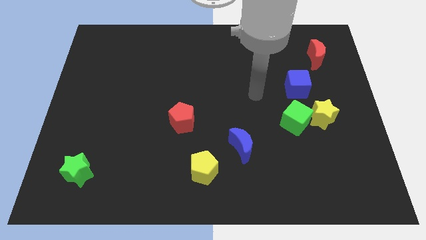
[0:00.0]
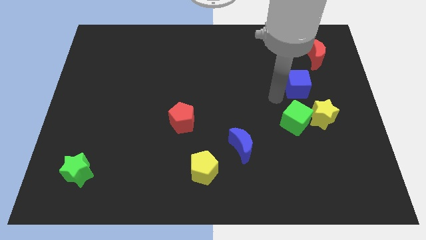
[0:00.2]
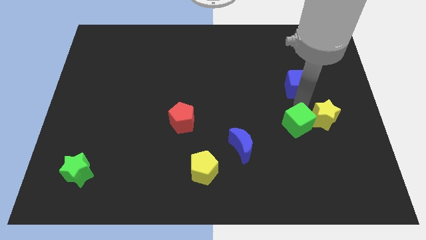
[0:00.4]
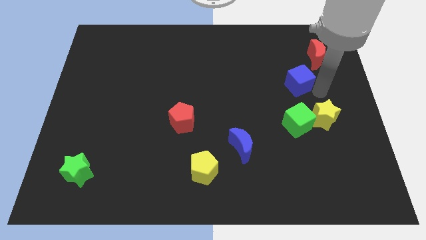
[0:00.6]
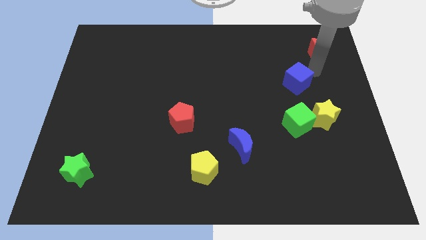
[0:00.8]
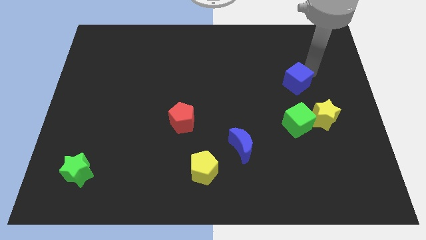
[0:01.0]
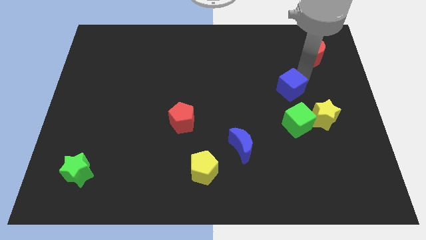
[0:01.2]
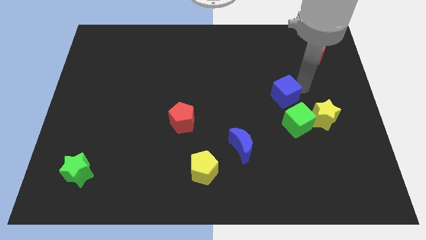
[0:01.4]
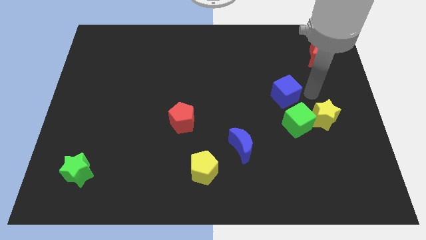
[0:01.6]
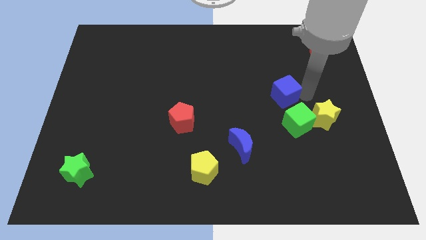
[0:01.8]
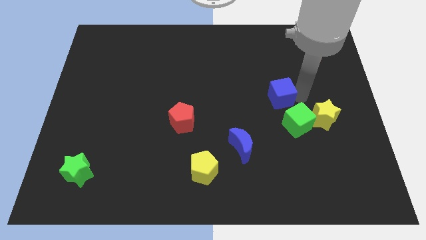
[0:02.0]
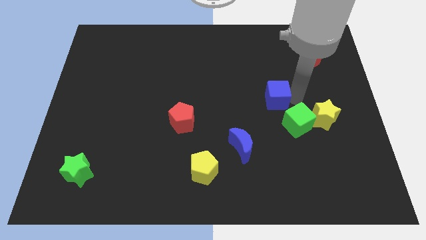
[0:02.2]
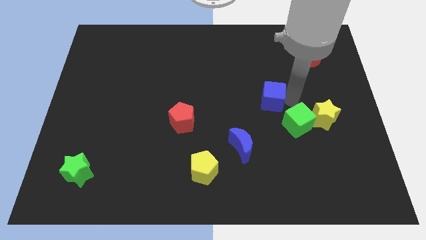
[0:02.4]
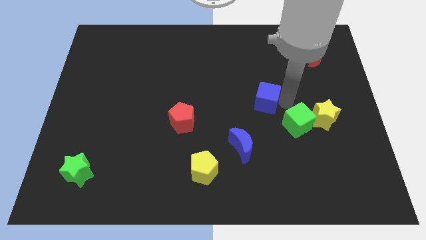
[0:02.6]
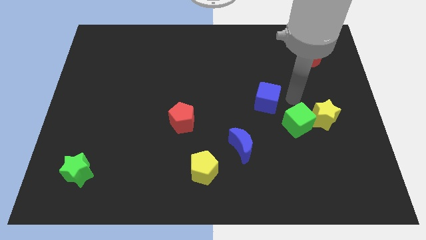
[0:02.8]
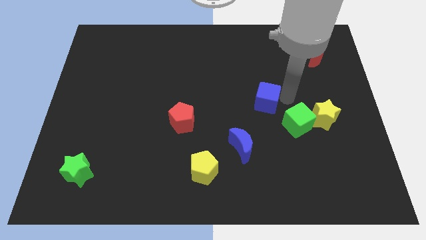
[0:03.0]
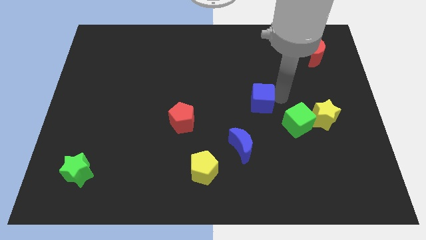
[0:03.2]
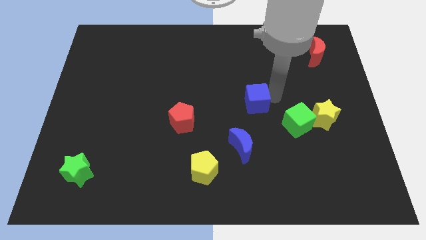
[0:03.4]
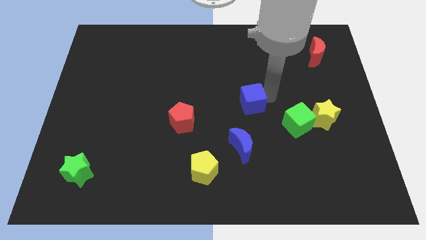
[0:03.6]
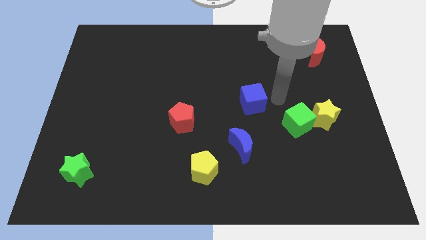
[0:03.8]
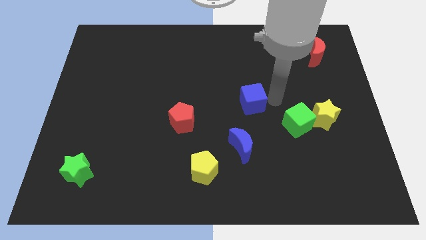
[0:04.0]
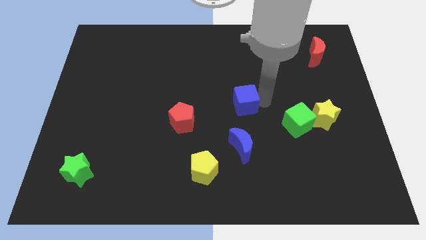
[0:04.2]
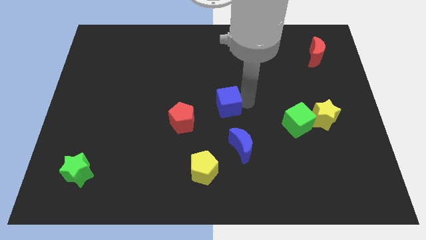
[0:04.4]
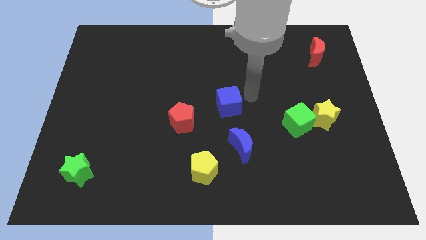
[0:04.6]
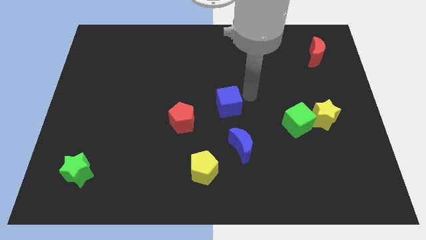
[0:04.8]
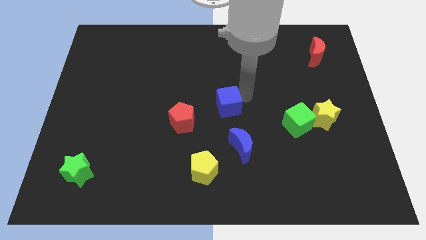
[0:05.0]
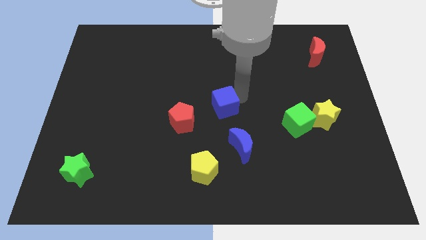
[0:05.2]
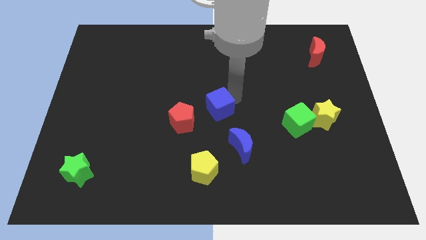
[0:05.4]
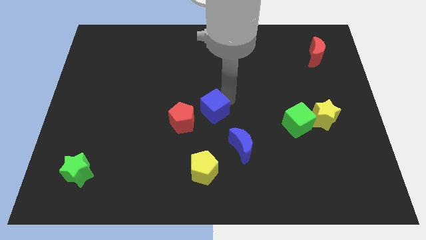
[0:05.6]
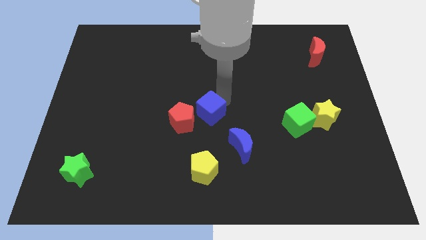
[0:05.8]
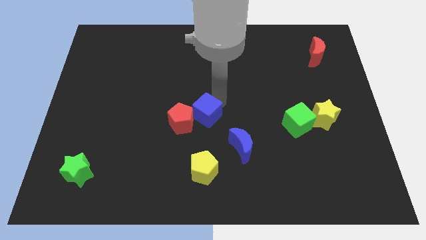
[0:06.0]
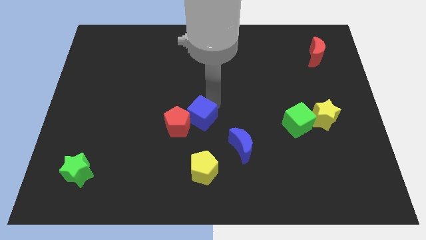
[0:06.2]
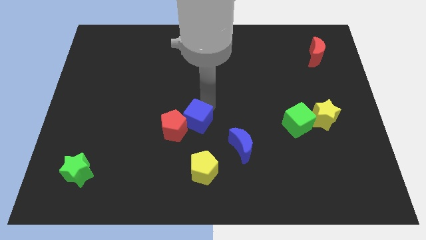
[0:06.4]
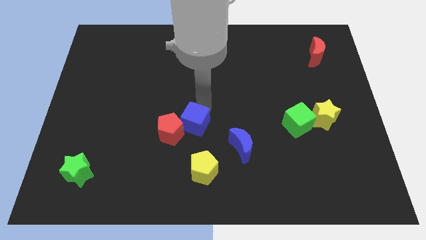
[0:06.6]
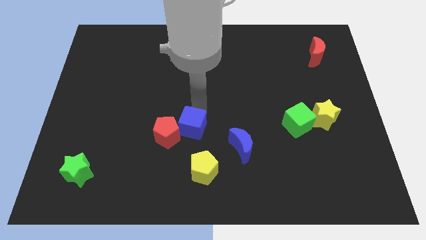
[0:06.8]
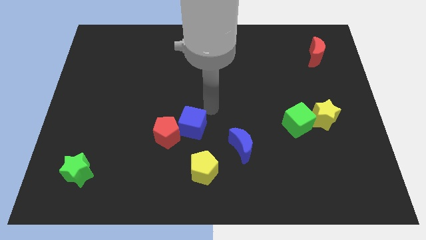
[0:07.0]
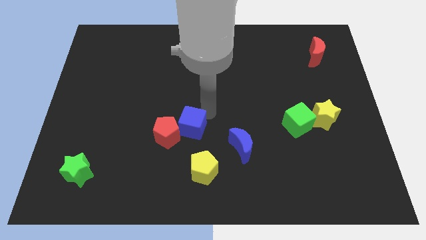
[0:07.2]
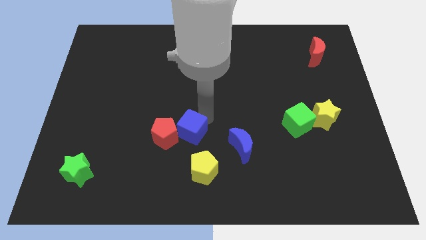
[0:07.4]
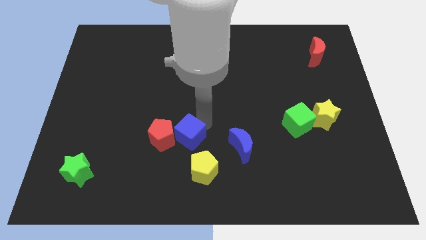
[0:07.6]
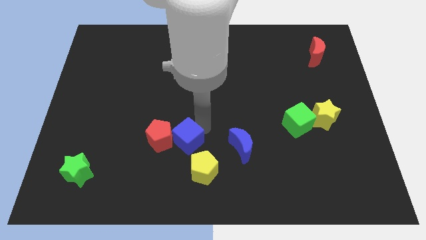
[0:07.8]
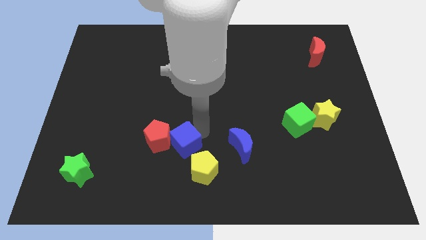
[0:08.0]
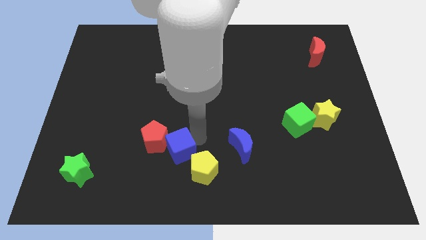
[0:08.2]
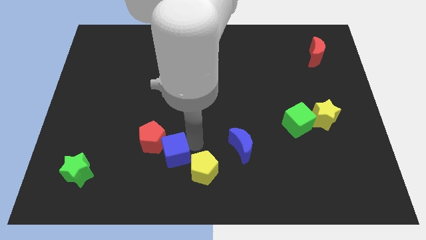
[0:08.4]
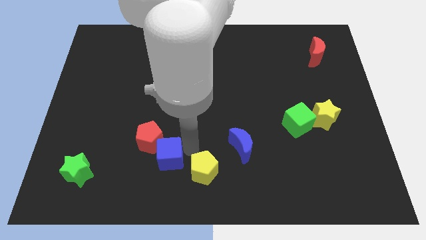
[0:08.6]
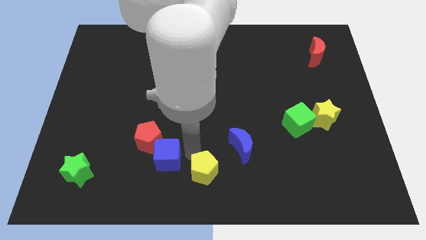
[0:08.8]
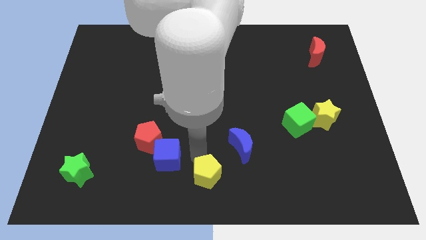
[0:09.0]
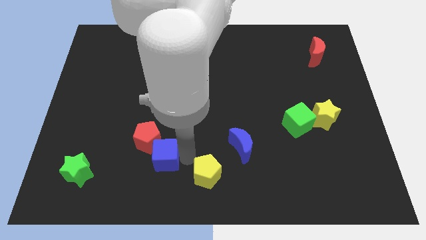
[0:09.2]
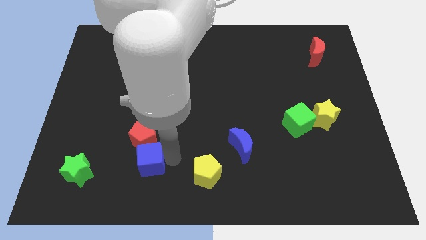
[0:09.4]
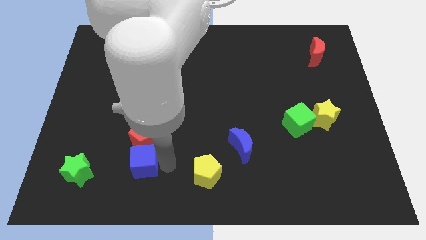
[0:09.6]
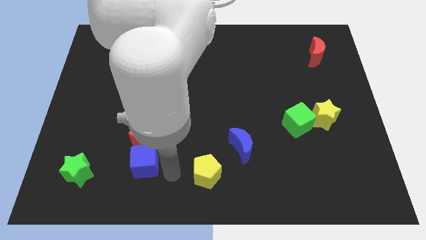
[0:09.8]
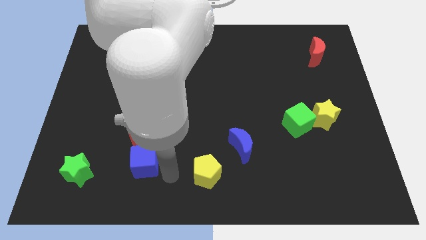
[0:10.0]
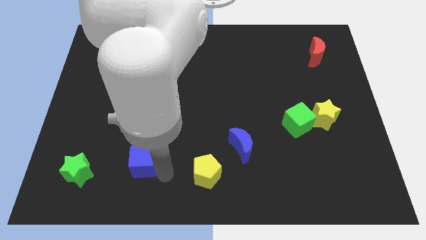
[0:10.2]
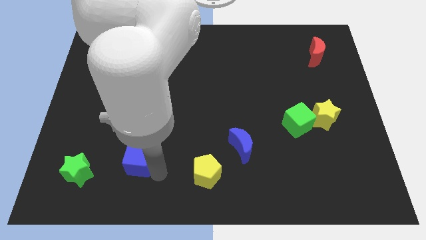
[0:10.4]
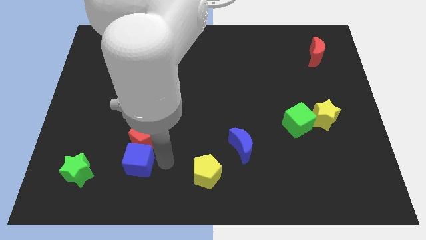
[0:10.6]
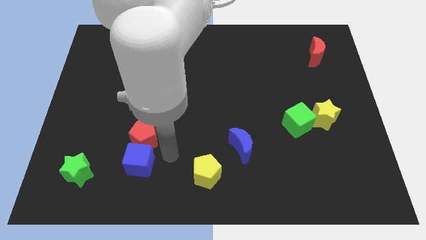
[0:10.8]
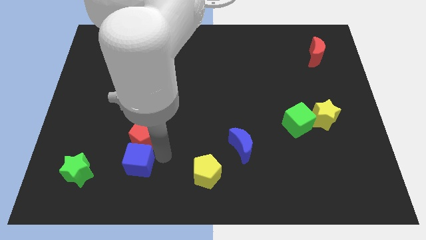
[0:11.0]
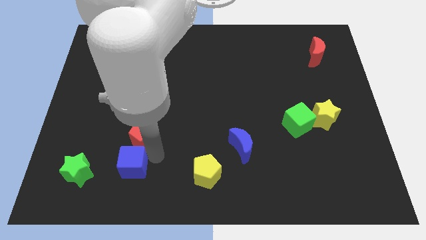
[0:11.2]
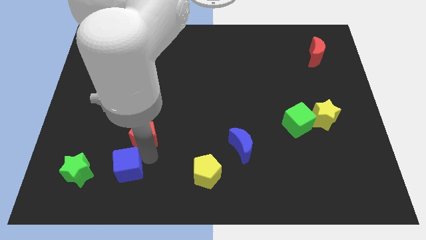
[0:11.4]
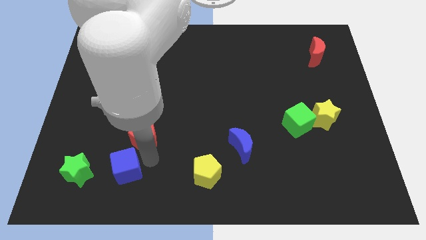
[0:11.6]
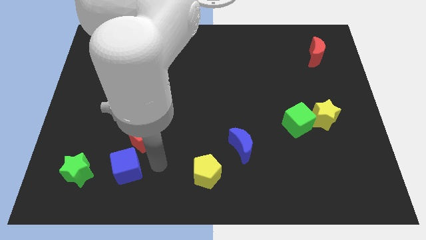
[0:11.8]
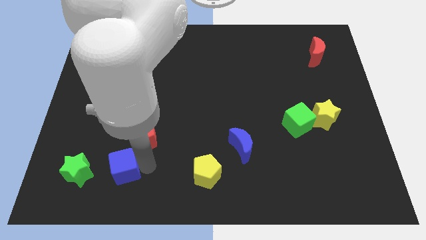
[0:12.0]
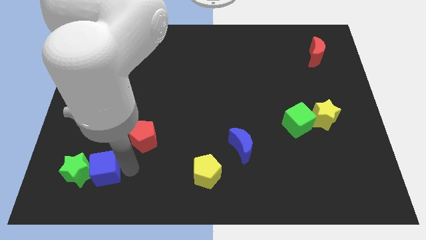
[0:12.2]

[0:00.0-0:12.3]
slide the blue cube next to the green star

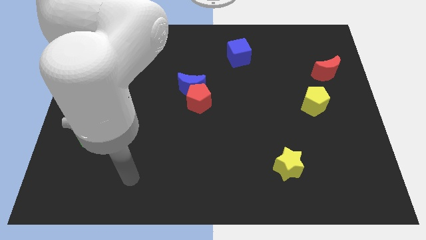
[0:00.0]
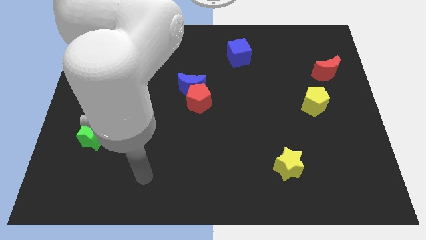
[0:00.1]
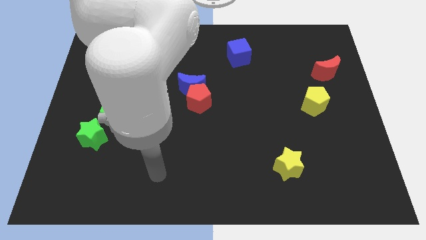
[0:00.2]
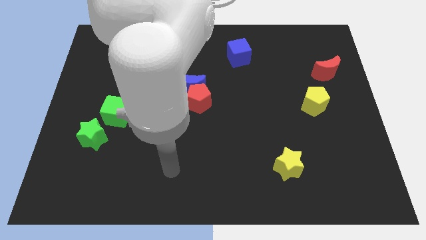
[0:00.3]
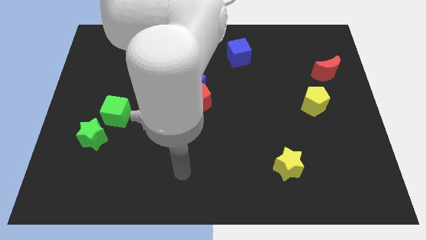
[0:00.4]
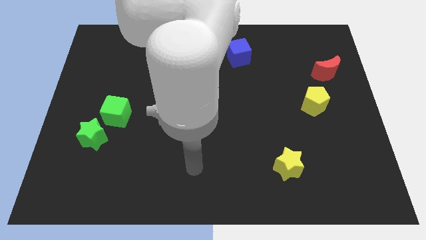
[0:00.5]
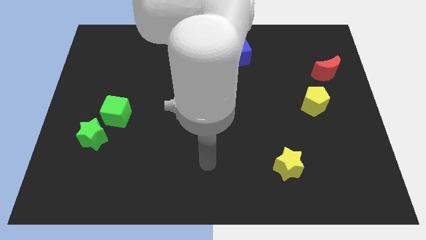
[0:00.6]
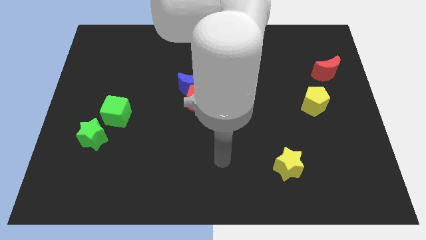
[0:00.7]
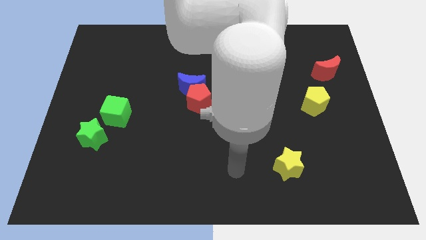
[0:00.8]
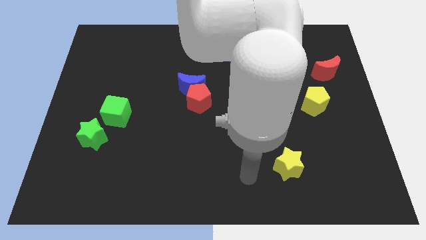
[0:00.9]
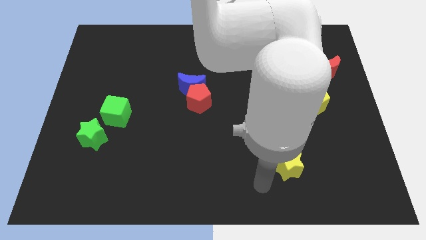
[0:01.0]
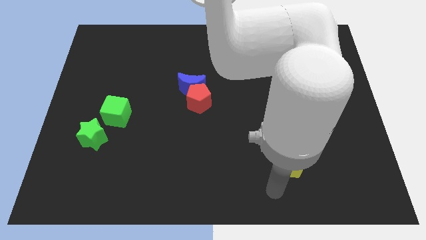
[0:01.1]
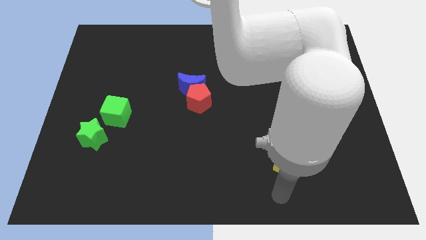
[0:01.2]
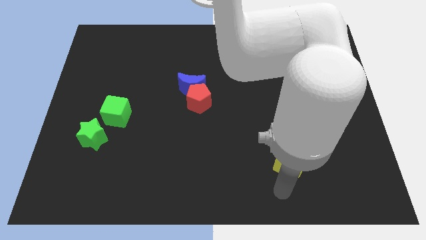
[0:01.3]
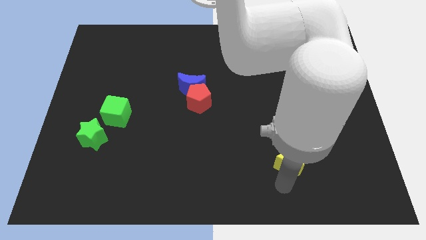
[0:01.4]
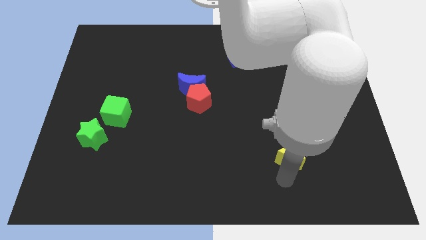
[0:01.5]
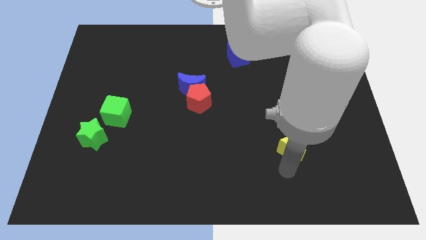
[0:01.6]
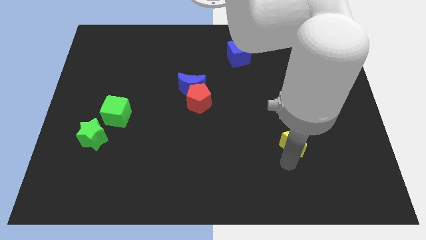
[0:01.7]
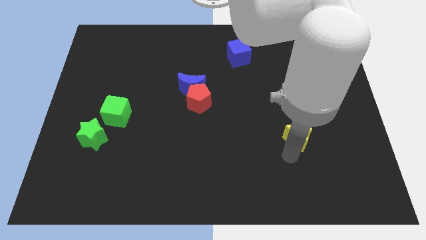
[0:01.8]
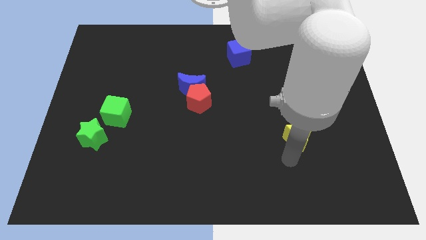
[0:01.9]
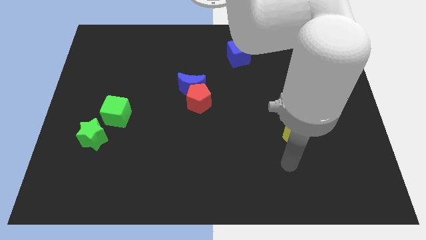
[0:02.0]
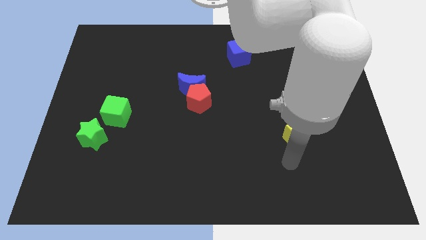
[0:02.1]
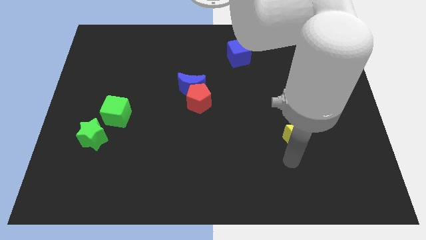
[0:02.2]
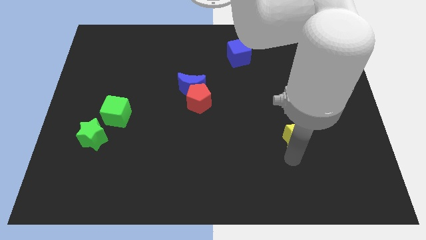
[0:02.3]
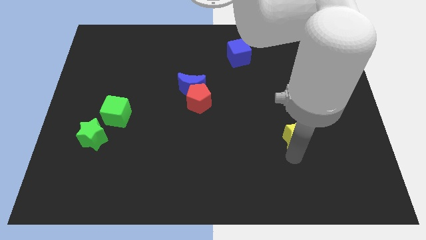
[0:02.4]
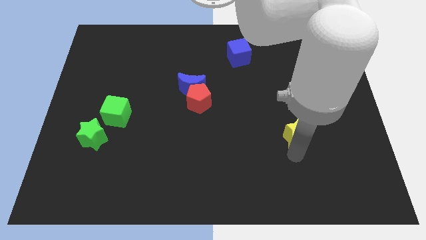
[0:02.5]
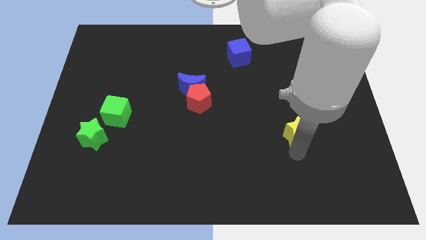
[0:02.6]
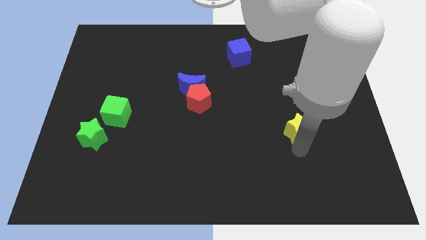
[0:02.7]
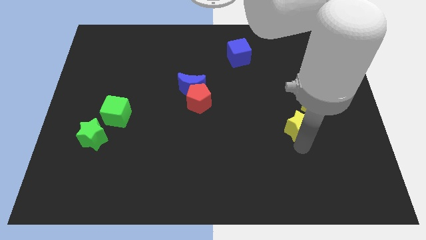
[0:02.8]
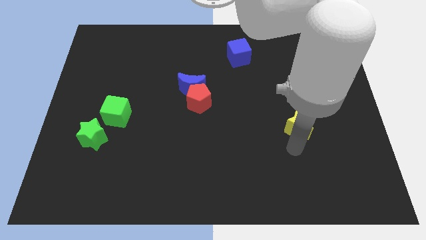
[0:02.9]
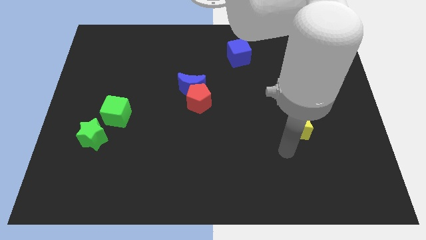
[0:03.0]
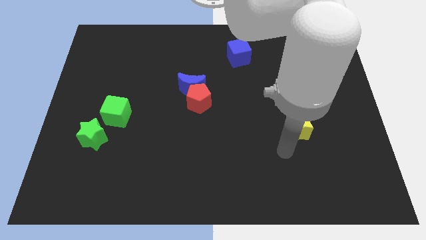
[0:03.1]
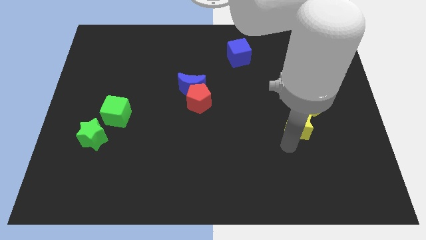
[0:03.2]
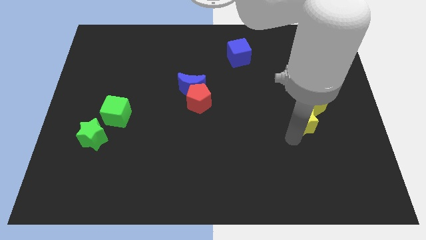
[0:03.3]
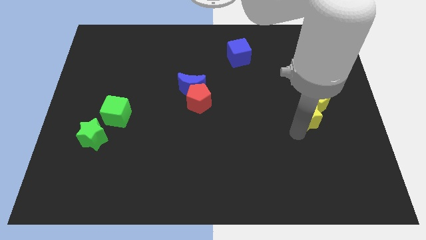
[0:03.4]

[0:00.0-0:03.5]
put the yellow star towards the yellow pentagon
